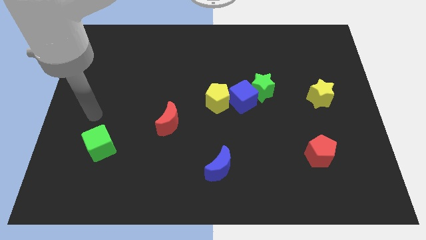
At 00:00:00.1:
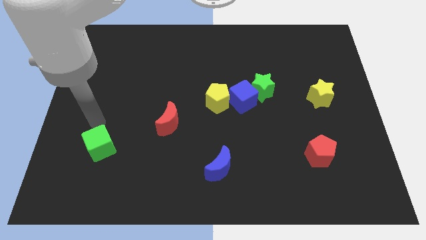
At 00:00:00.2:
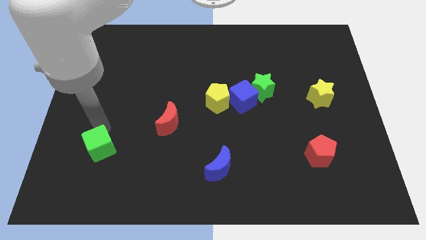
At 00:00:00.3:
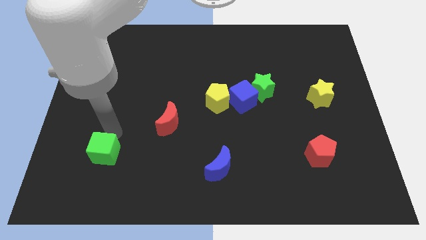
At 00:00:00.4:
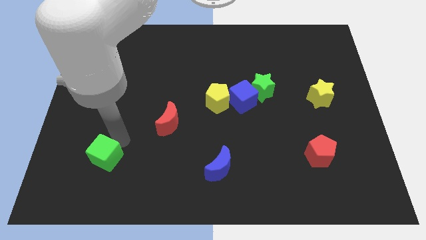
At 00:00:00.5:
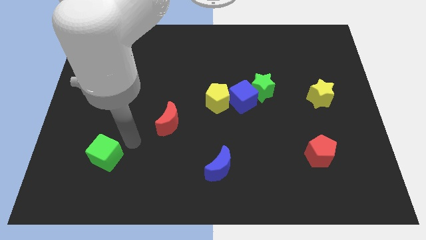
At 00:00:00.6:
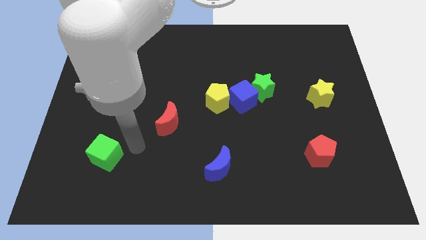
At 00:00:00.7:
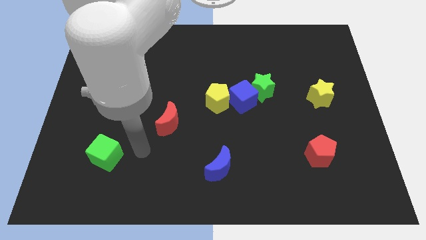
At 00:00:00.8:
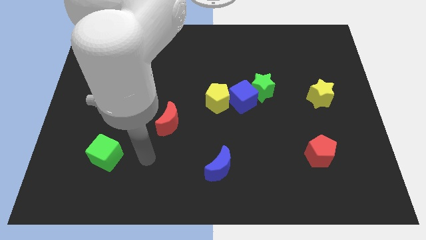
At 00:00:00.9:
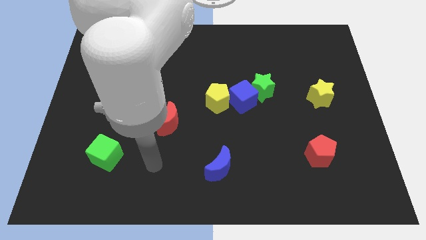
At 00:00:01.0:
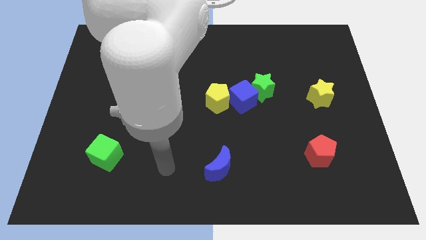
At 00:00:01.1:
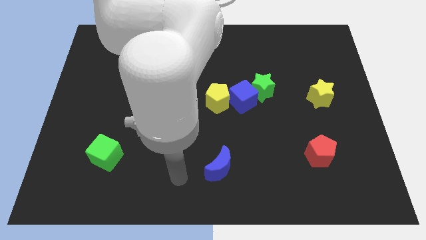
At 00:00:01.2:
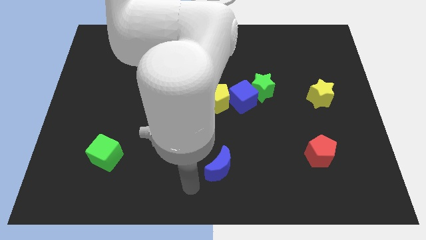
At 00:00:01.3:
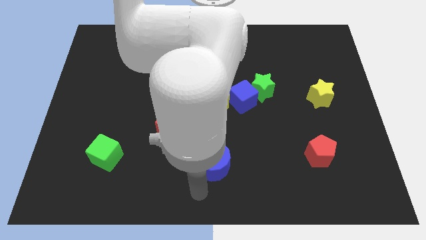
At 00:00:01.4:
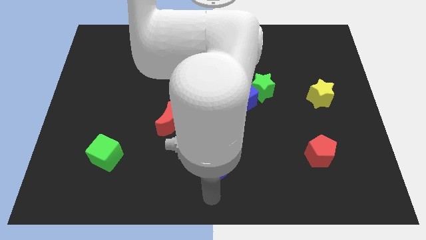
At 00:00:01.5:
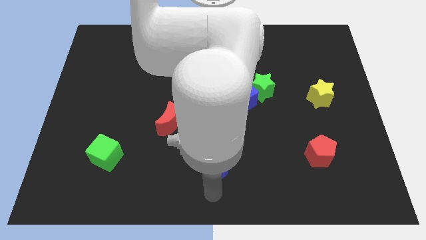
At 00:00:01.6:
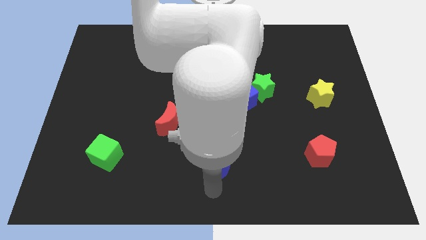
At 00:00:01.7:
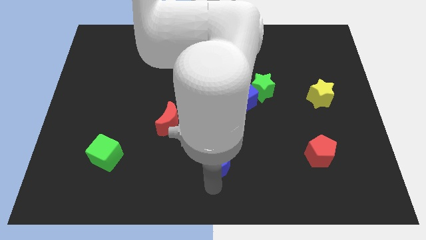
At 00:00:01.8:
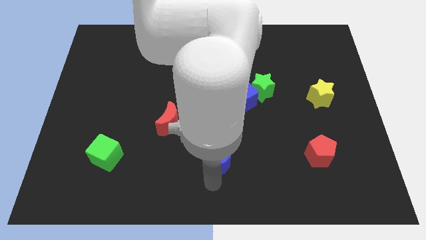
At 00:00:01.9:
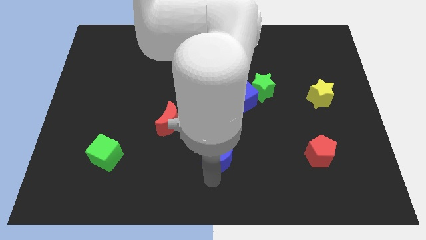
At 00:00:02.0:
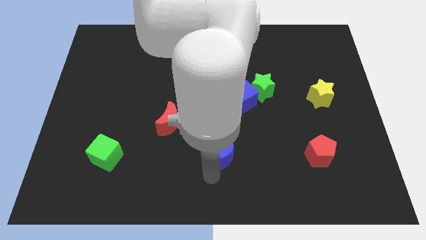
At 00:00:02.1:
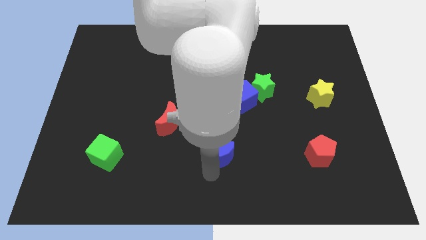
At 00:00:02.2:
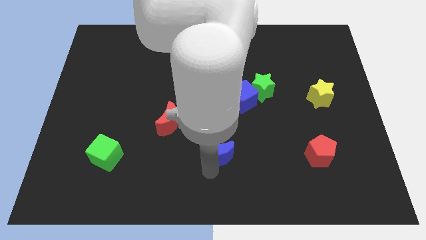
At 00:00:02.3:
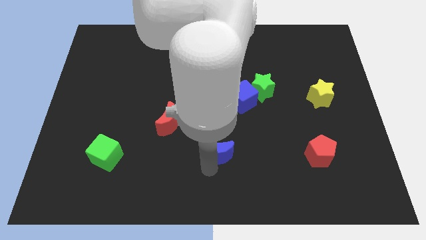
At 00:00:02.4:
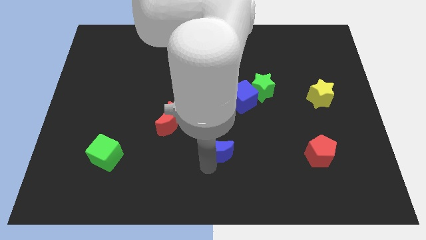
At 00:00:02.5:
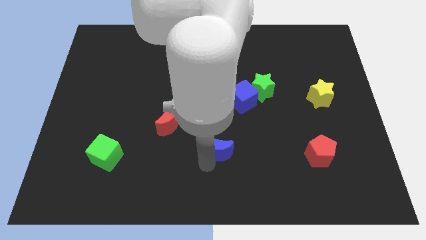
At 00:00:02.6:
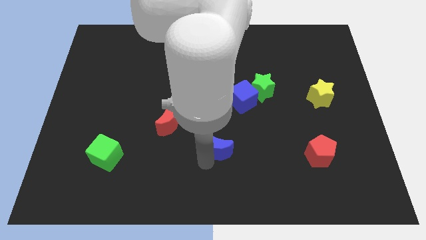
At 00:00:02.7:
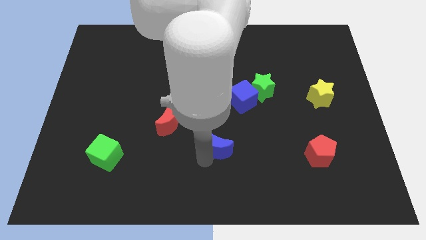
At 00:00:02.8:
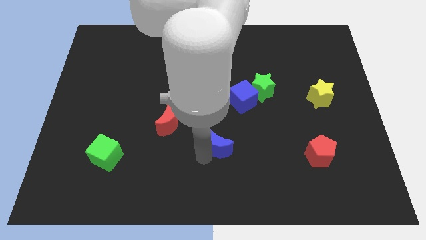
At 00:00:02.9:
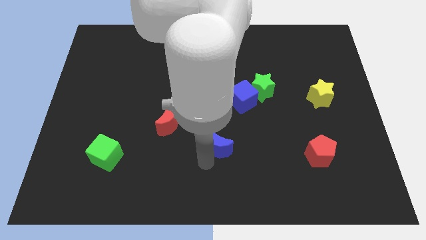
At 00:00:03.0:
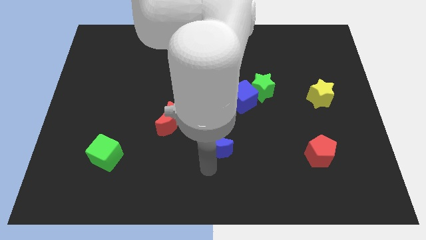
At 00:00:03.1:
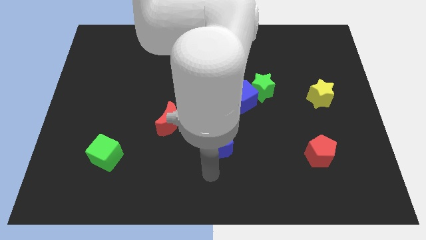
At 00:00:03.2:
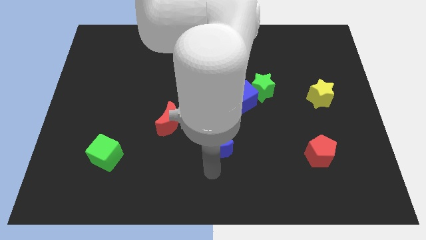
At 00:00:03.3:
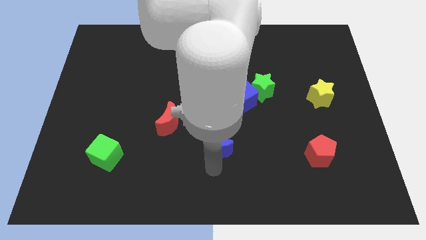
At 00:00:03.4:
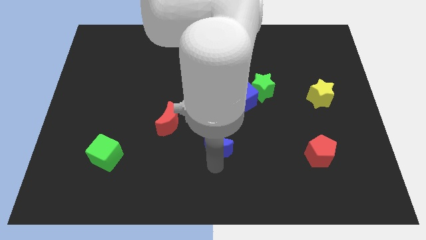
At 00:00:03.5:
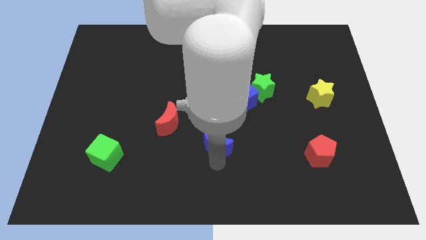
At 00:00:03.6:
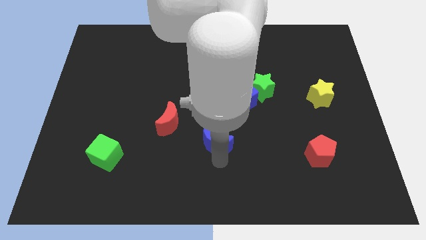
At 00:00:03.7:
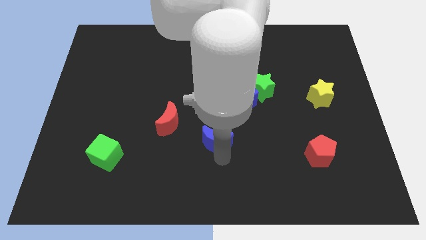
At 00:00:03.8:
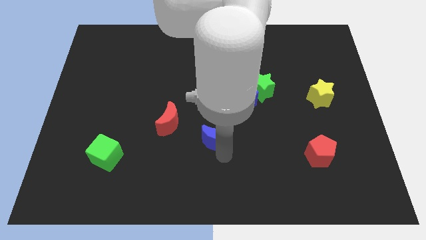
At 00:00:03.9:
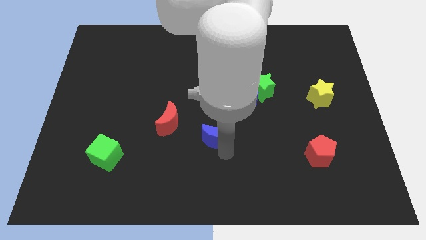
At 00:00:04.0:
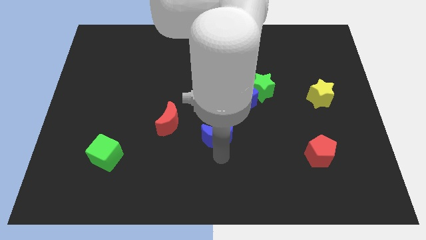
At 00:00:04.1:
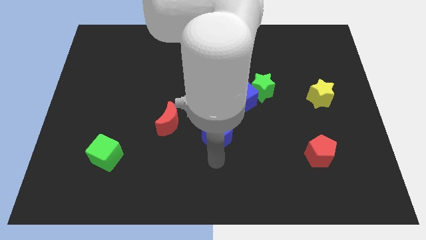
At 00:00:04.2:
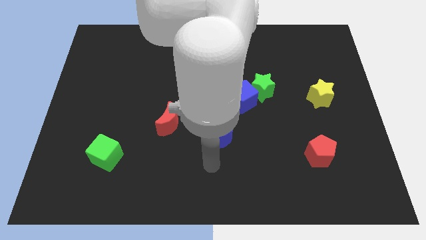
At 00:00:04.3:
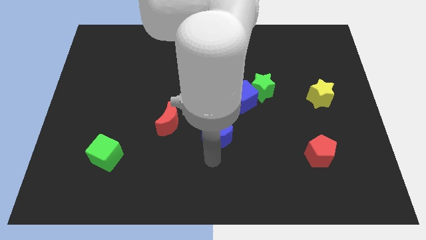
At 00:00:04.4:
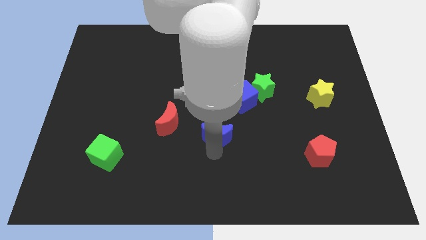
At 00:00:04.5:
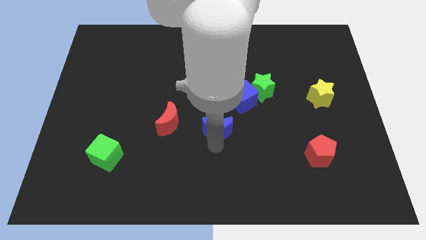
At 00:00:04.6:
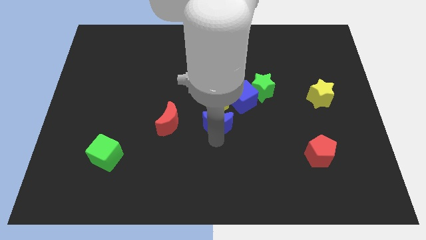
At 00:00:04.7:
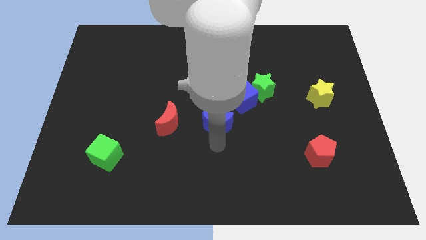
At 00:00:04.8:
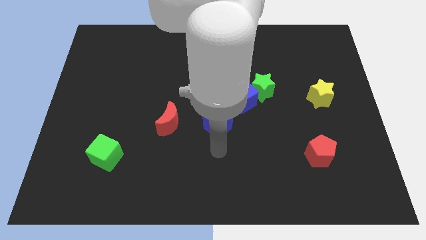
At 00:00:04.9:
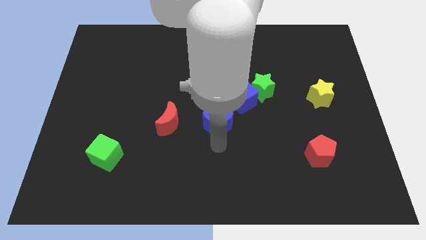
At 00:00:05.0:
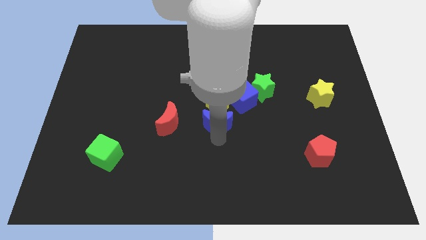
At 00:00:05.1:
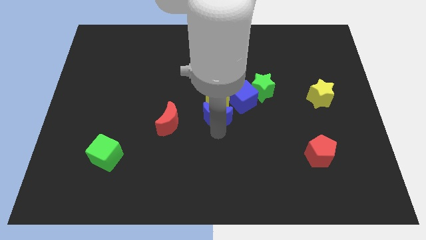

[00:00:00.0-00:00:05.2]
move the blue moon next to the yellow pentagon

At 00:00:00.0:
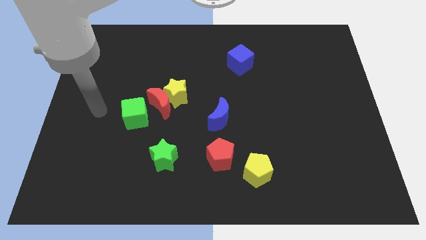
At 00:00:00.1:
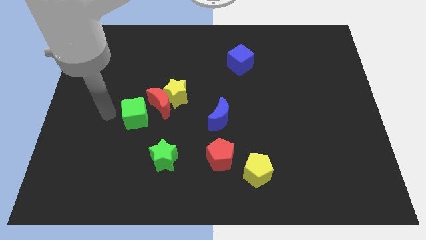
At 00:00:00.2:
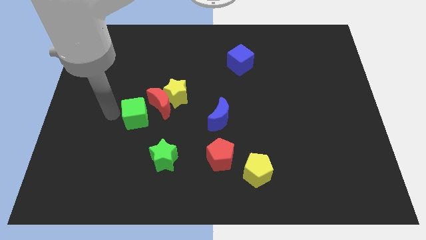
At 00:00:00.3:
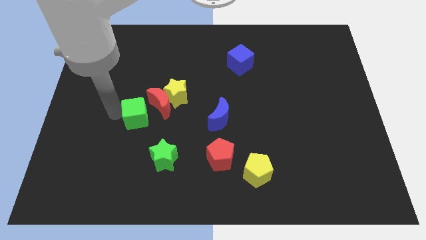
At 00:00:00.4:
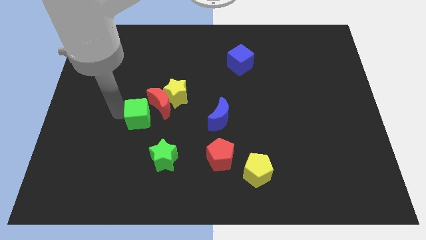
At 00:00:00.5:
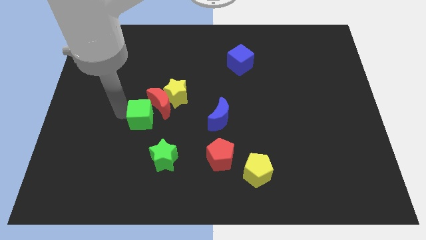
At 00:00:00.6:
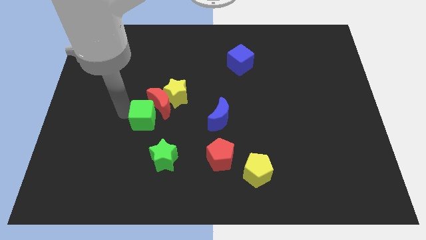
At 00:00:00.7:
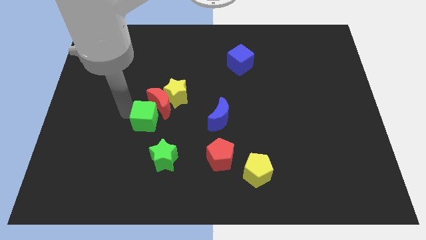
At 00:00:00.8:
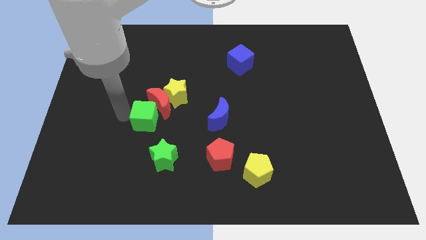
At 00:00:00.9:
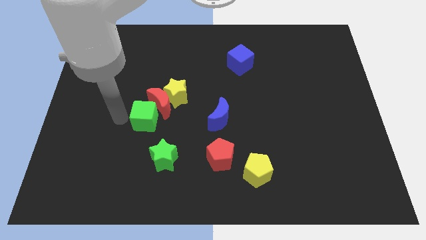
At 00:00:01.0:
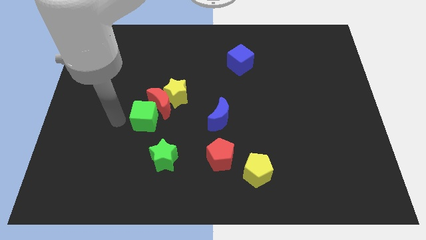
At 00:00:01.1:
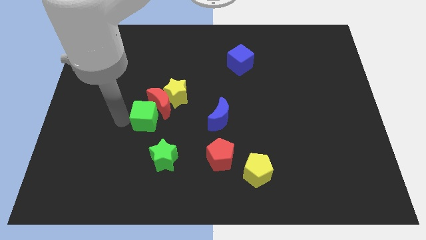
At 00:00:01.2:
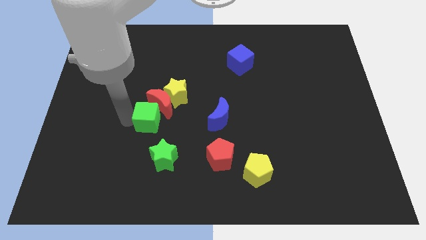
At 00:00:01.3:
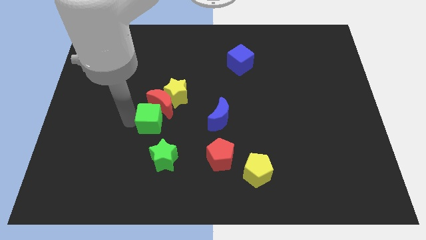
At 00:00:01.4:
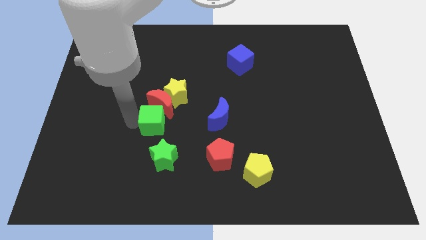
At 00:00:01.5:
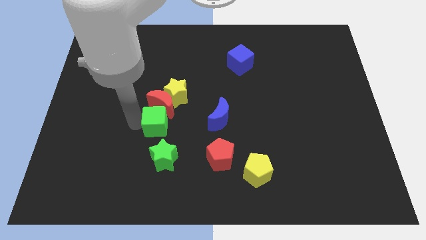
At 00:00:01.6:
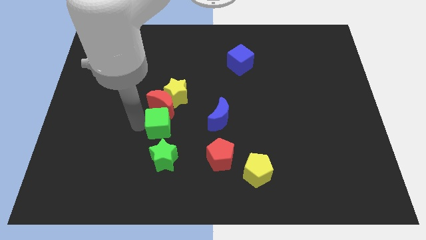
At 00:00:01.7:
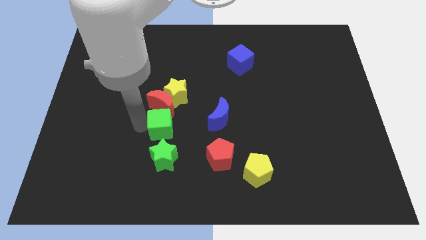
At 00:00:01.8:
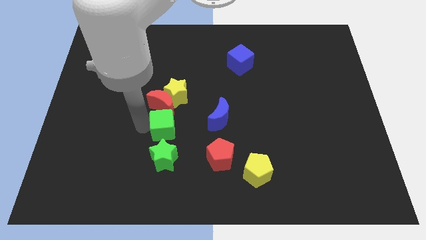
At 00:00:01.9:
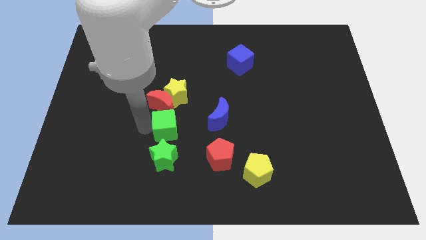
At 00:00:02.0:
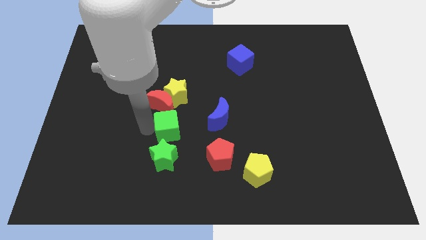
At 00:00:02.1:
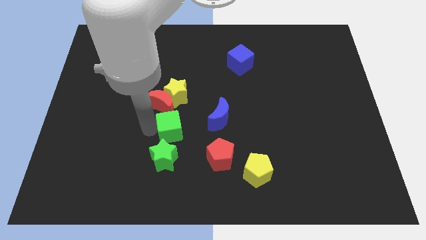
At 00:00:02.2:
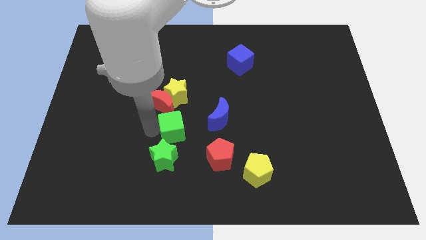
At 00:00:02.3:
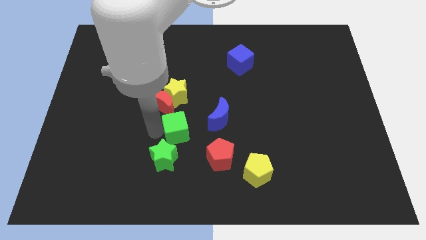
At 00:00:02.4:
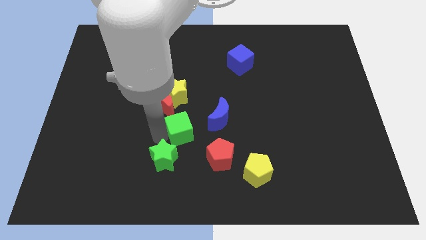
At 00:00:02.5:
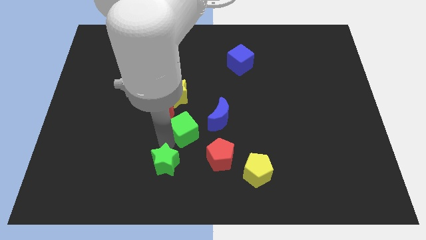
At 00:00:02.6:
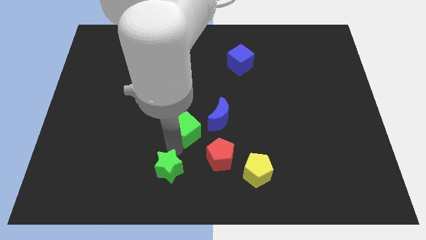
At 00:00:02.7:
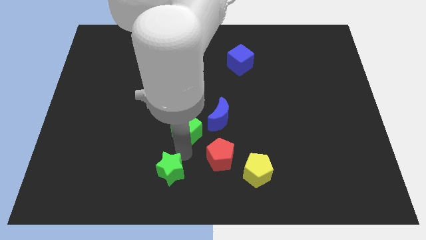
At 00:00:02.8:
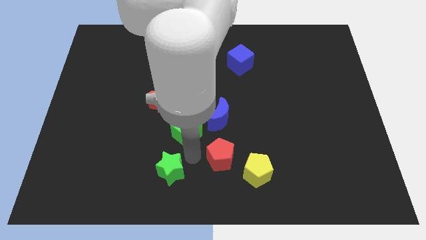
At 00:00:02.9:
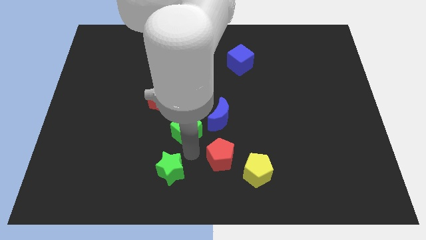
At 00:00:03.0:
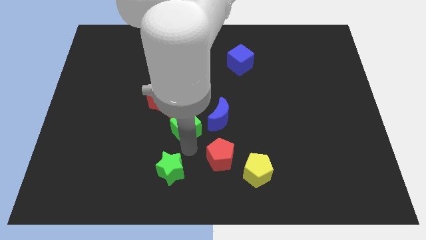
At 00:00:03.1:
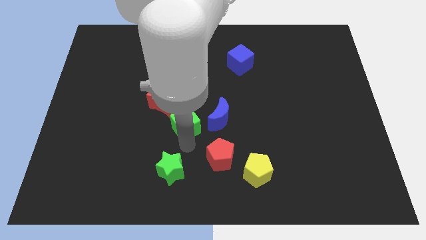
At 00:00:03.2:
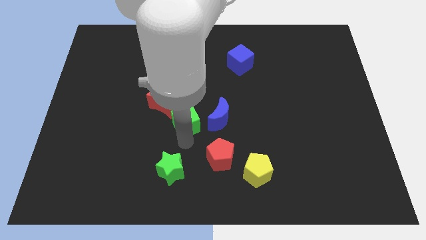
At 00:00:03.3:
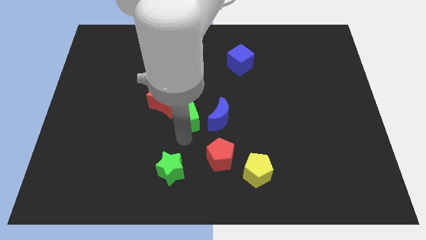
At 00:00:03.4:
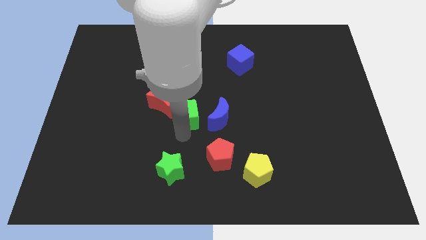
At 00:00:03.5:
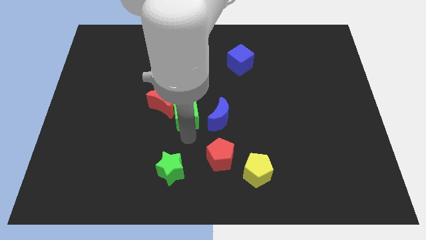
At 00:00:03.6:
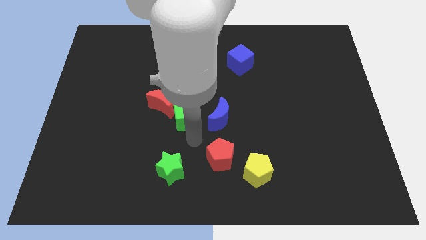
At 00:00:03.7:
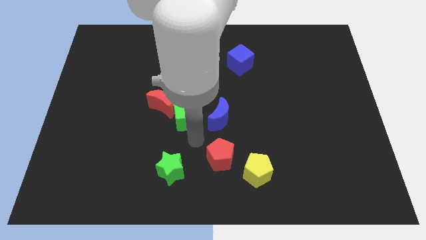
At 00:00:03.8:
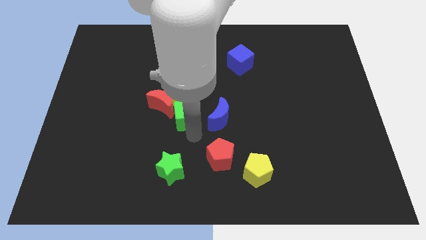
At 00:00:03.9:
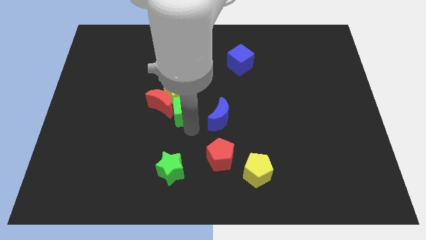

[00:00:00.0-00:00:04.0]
push the green cube to the yellow star
